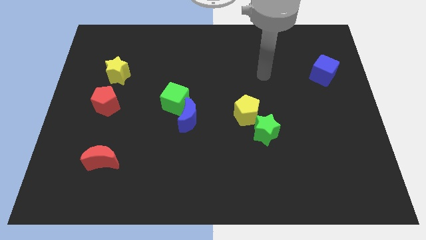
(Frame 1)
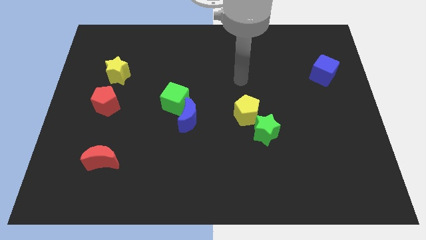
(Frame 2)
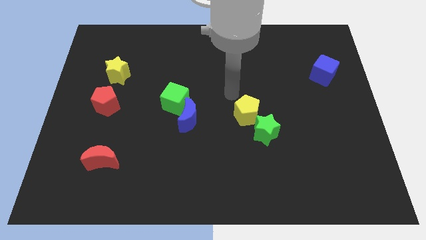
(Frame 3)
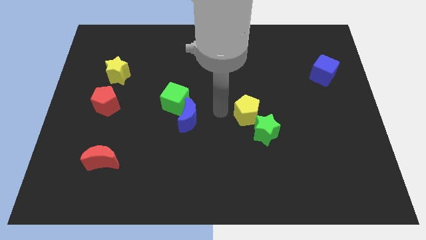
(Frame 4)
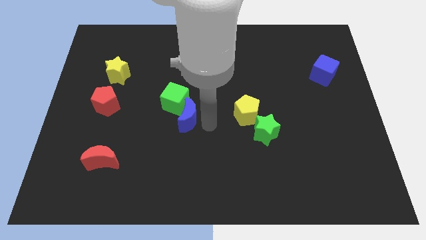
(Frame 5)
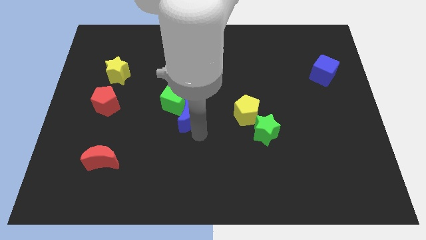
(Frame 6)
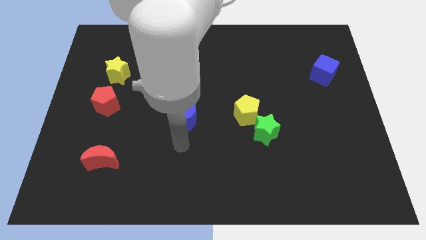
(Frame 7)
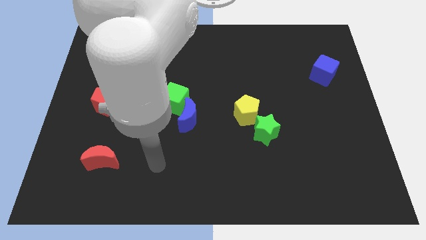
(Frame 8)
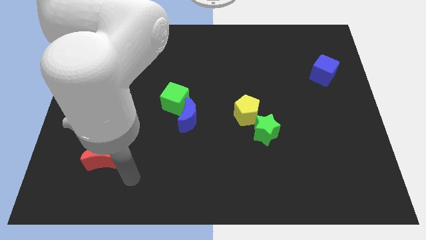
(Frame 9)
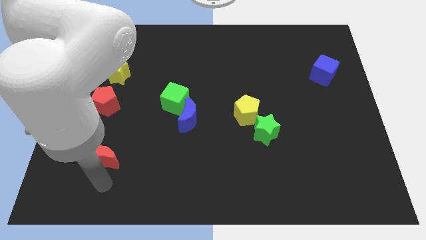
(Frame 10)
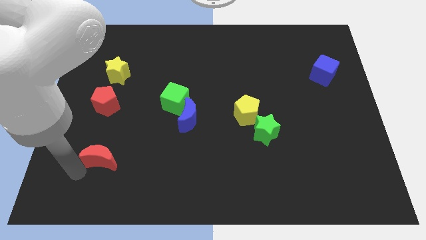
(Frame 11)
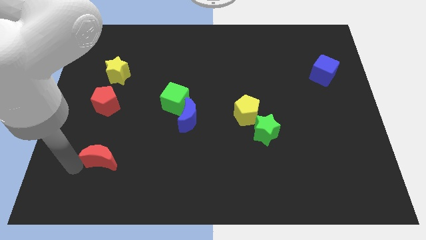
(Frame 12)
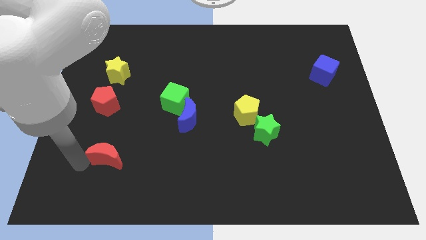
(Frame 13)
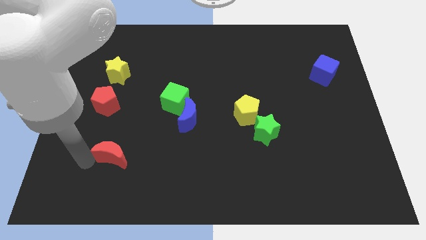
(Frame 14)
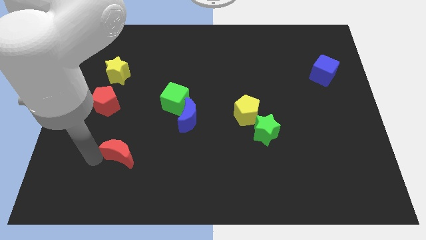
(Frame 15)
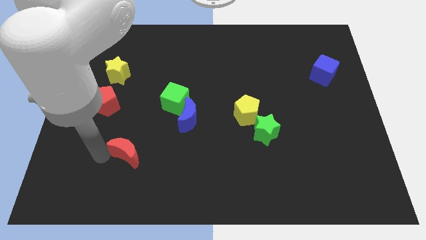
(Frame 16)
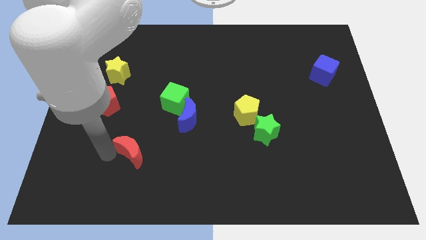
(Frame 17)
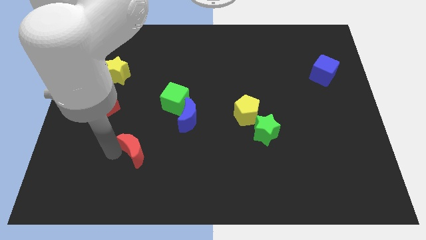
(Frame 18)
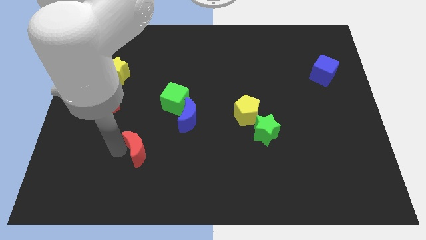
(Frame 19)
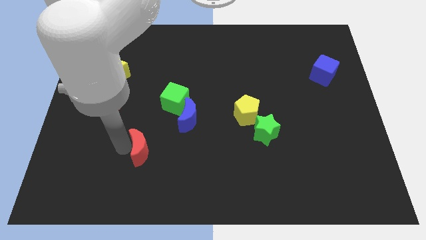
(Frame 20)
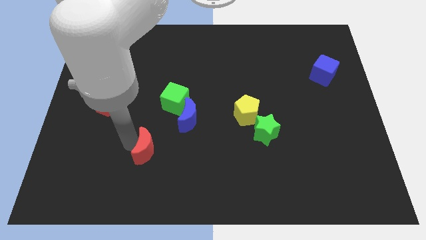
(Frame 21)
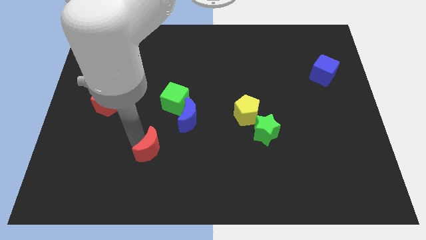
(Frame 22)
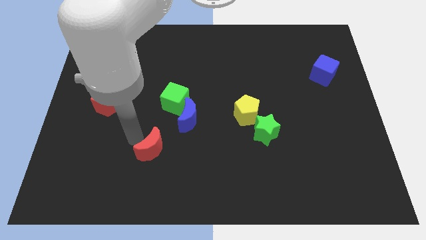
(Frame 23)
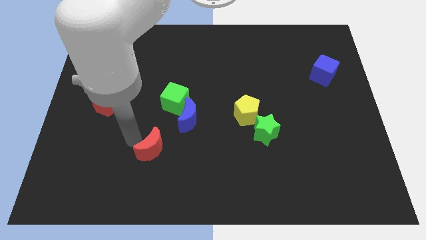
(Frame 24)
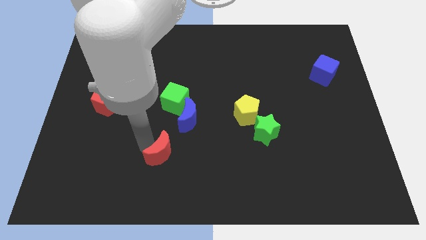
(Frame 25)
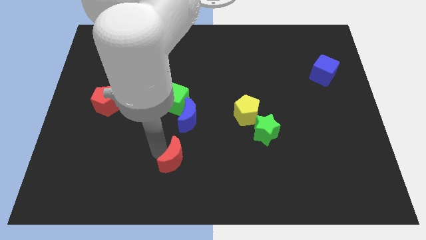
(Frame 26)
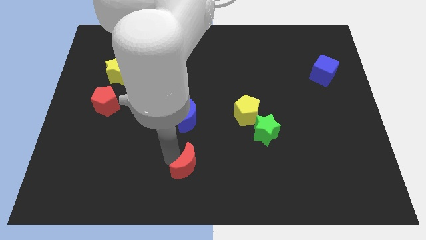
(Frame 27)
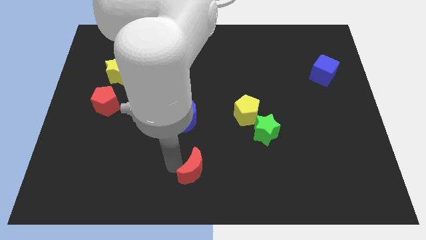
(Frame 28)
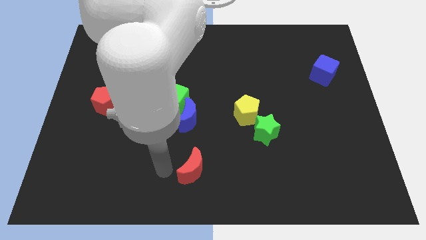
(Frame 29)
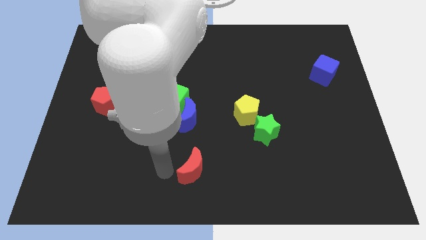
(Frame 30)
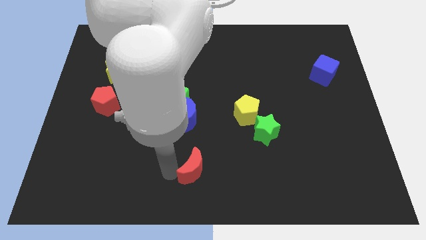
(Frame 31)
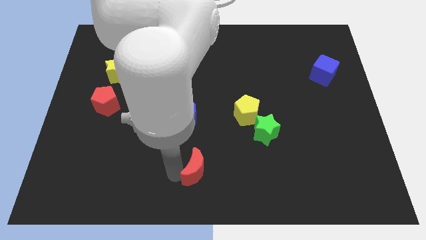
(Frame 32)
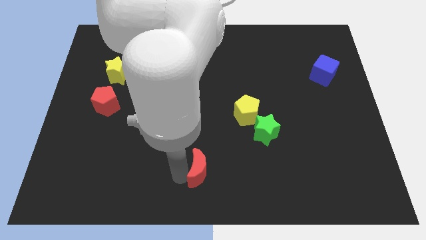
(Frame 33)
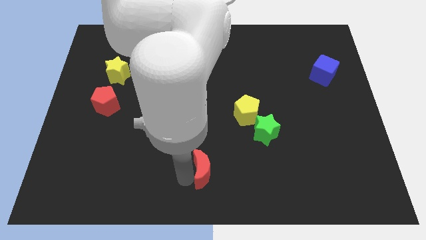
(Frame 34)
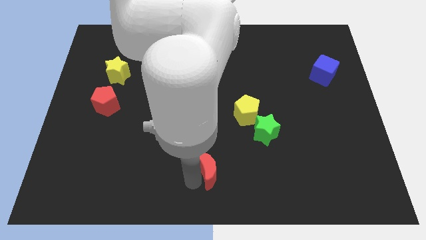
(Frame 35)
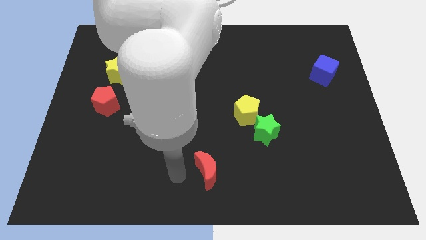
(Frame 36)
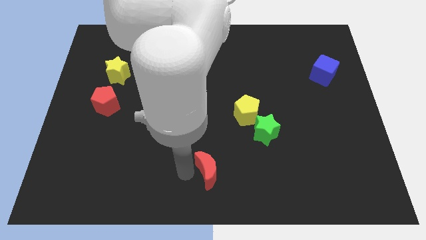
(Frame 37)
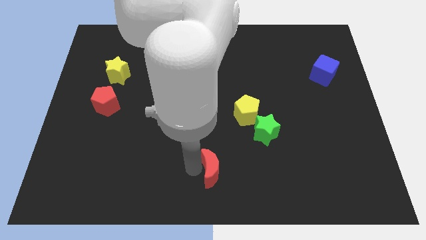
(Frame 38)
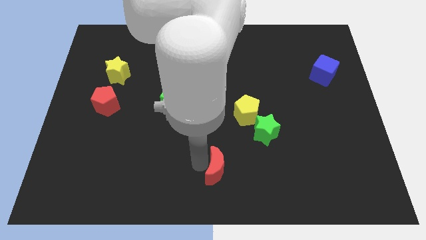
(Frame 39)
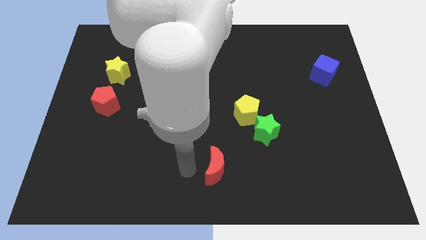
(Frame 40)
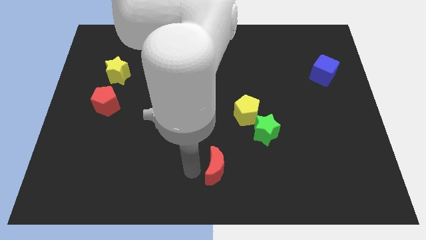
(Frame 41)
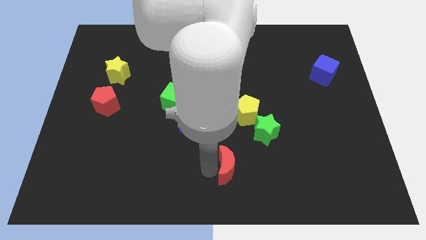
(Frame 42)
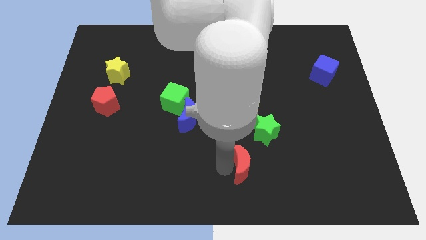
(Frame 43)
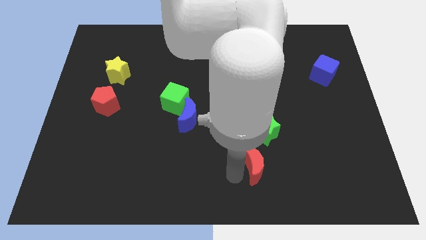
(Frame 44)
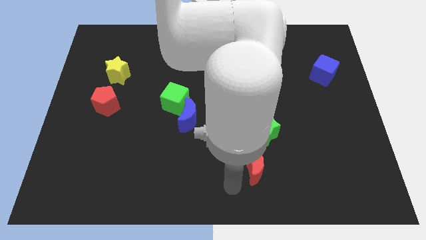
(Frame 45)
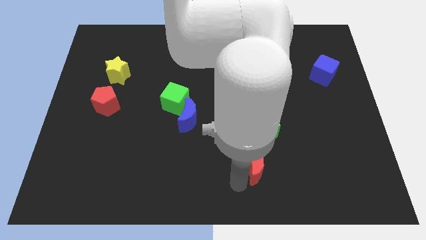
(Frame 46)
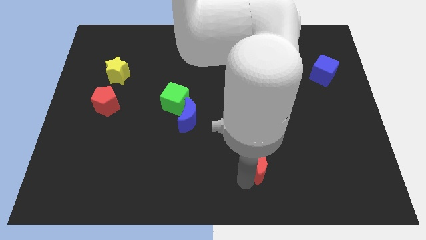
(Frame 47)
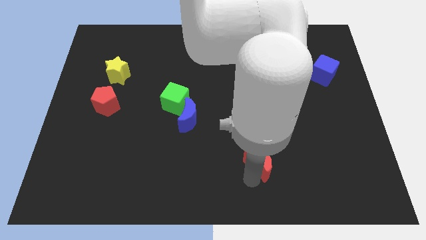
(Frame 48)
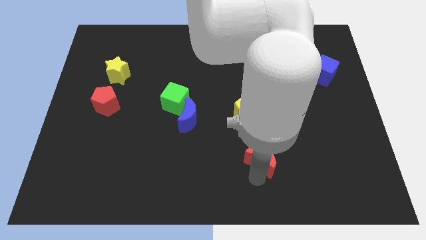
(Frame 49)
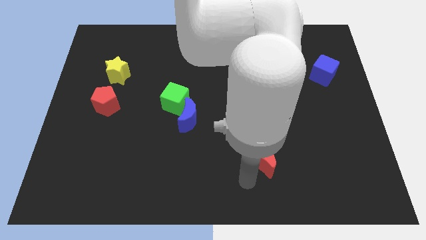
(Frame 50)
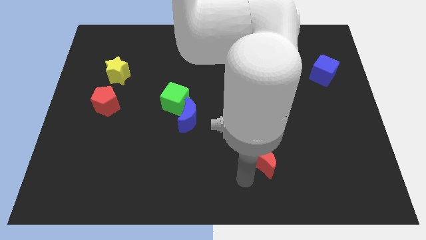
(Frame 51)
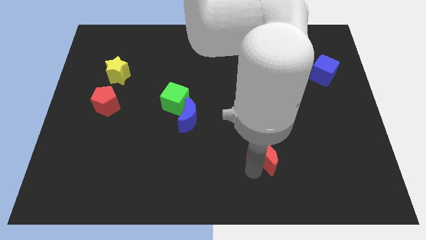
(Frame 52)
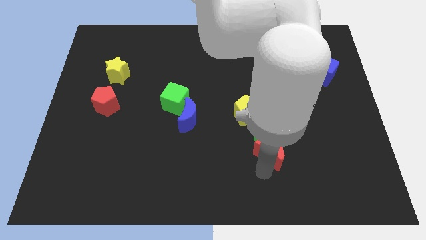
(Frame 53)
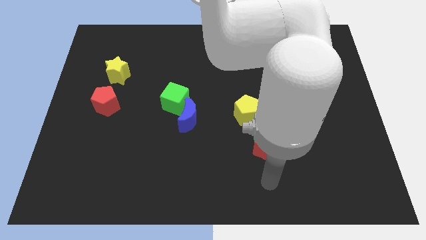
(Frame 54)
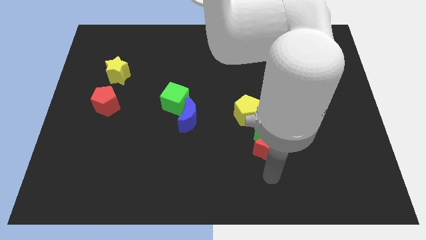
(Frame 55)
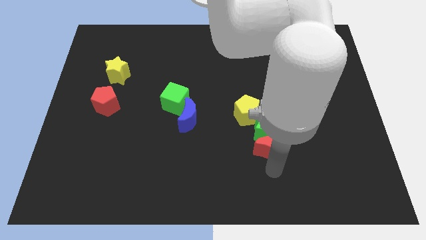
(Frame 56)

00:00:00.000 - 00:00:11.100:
slide the red moon to the bottom right of the yellow pentagon

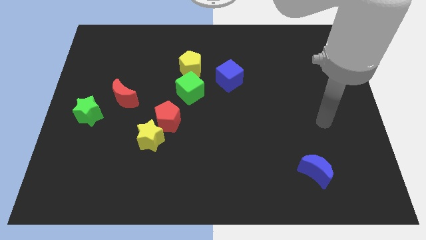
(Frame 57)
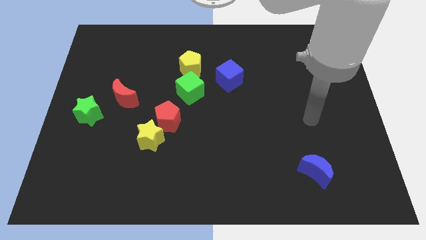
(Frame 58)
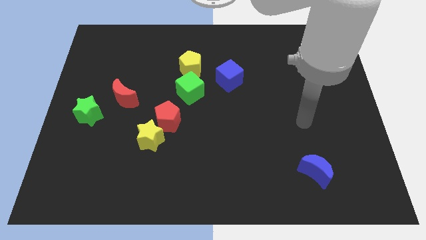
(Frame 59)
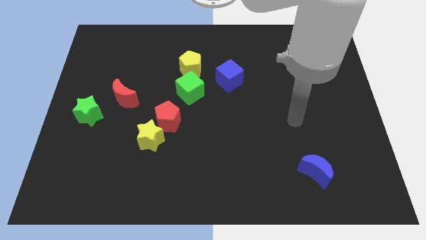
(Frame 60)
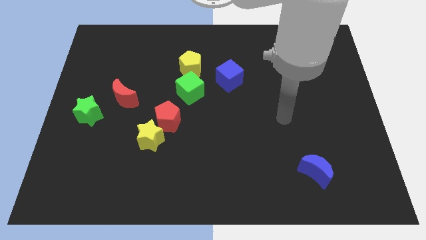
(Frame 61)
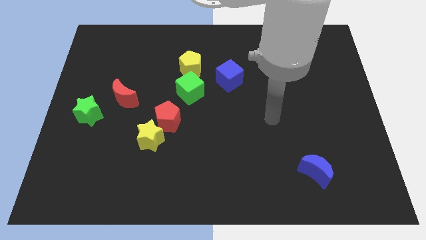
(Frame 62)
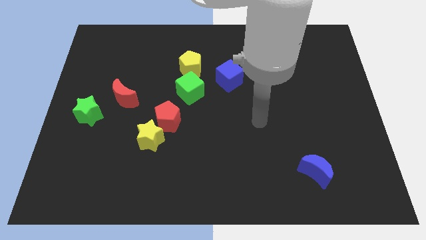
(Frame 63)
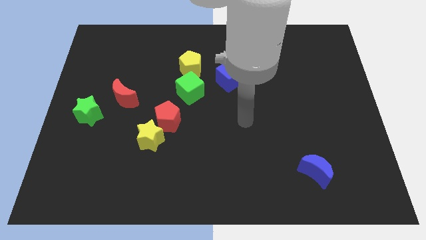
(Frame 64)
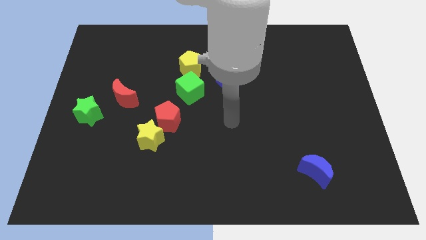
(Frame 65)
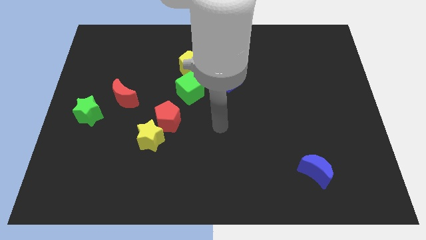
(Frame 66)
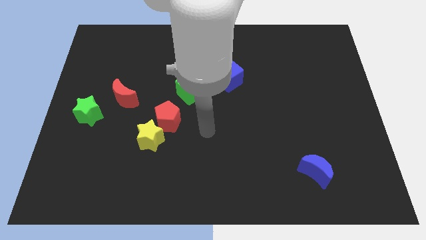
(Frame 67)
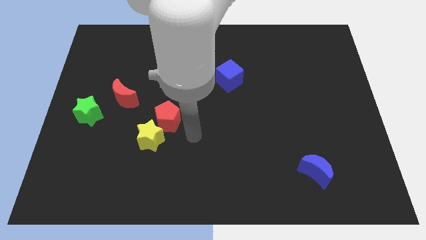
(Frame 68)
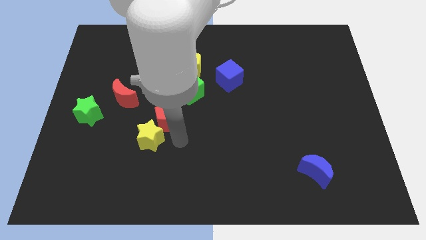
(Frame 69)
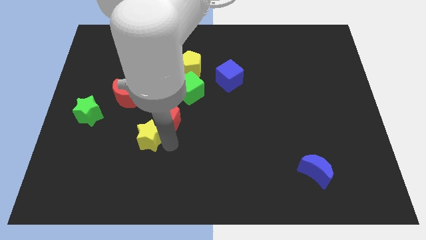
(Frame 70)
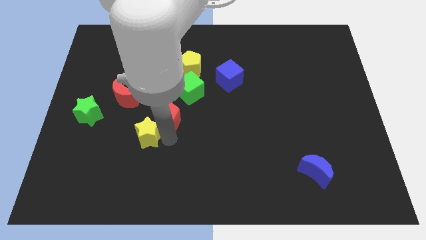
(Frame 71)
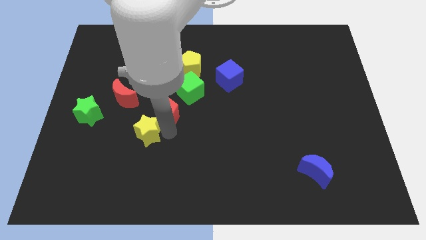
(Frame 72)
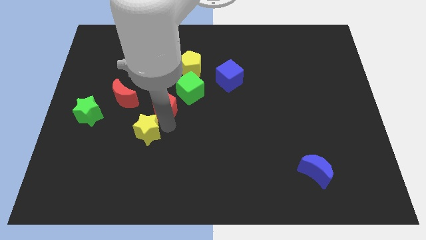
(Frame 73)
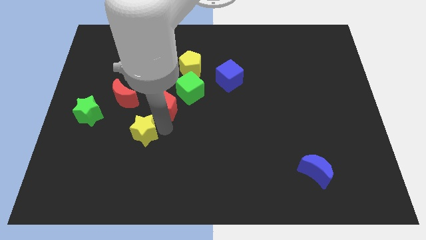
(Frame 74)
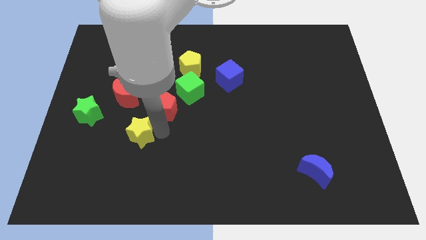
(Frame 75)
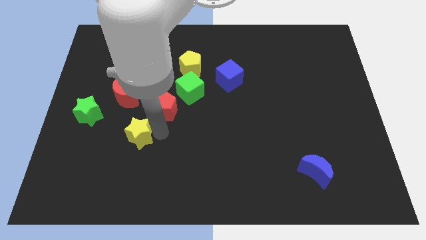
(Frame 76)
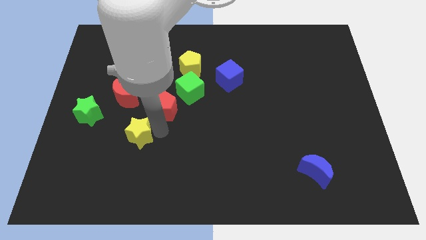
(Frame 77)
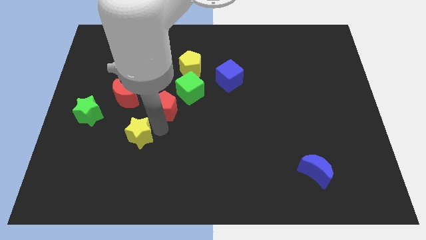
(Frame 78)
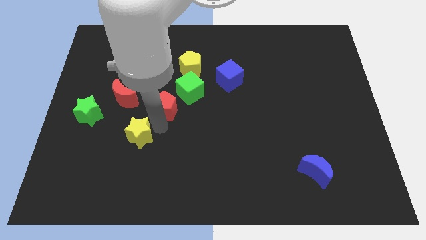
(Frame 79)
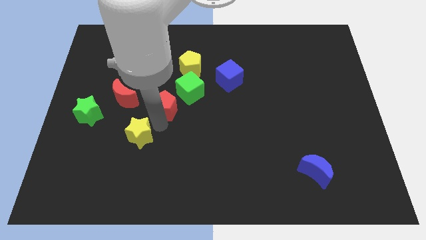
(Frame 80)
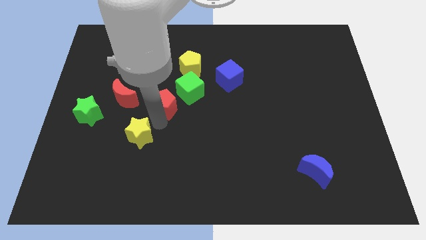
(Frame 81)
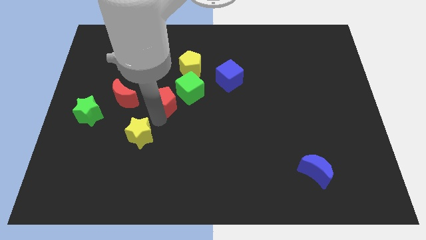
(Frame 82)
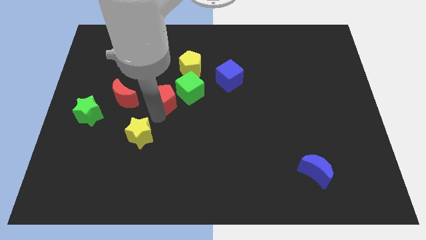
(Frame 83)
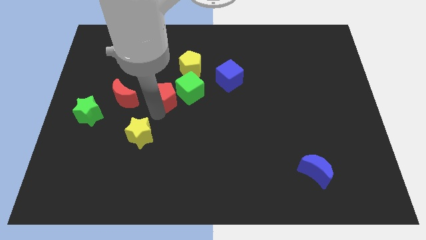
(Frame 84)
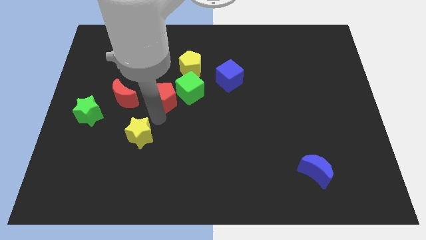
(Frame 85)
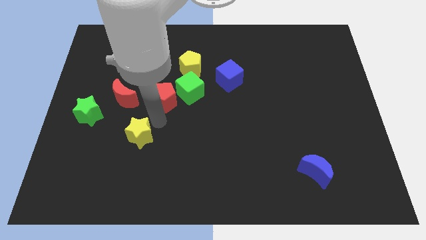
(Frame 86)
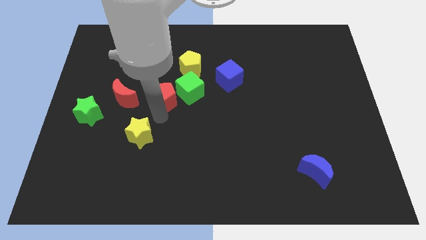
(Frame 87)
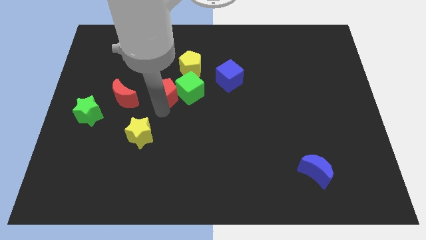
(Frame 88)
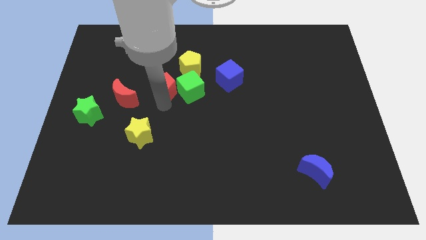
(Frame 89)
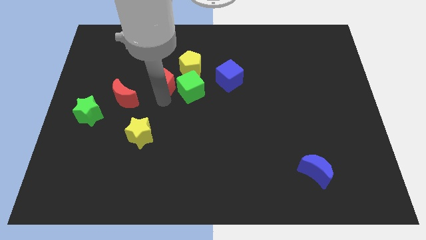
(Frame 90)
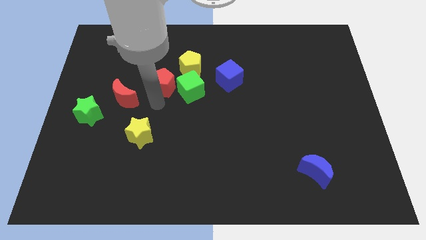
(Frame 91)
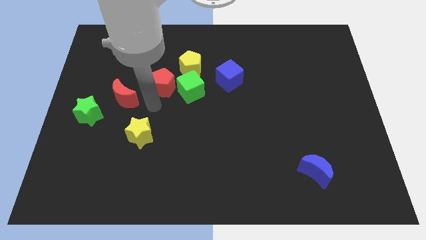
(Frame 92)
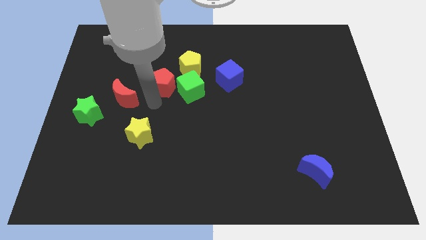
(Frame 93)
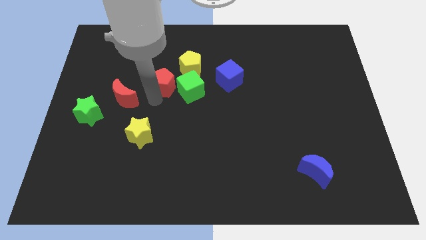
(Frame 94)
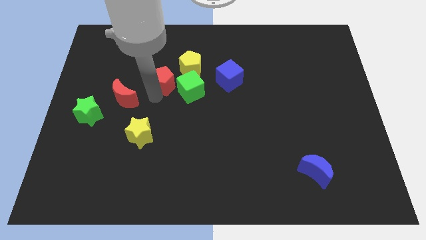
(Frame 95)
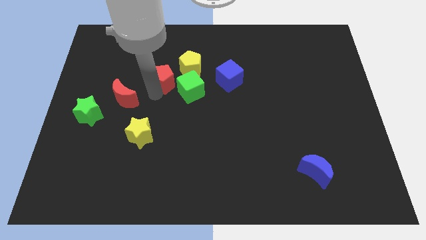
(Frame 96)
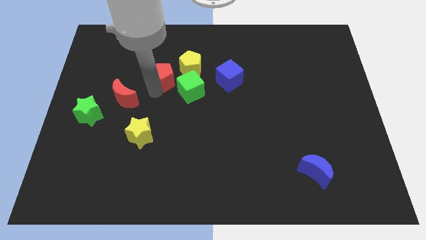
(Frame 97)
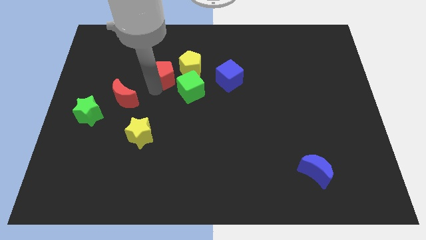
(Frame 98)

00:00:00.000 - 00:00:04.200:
push the red pentagon to the left side of the blue cube
